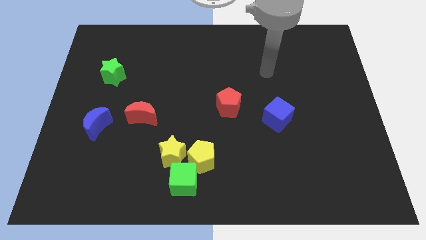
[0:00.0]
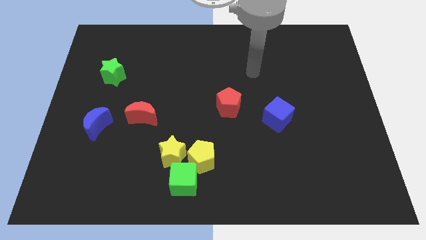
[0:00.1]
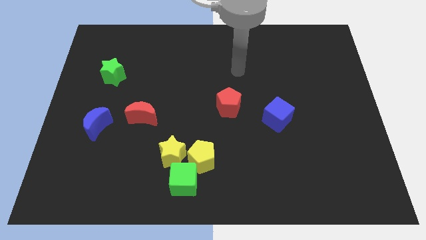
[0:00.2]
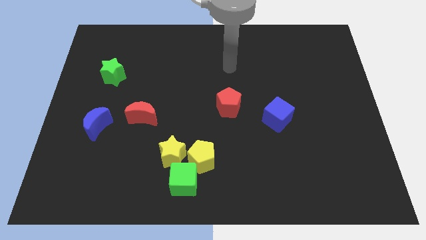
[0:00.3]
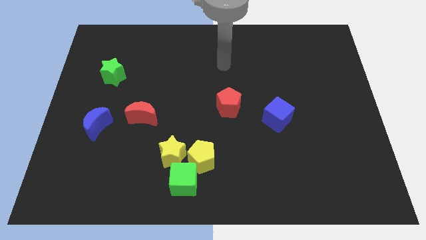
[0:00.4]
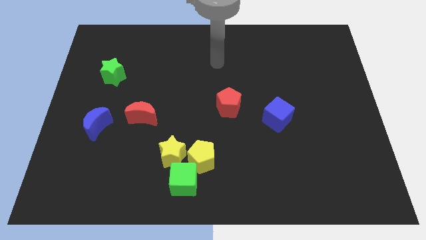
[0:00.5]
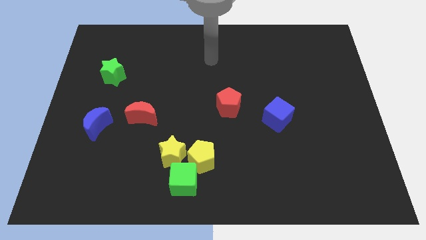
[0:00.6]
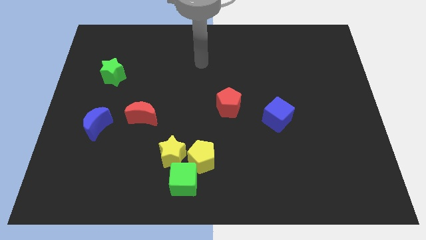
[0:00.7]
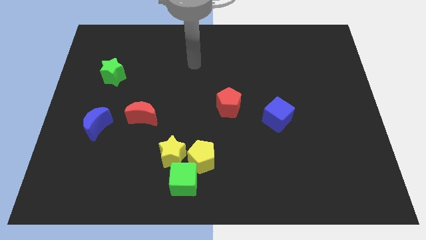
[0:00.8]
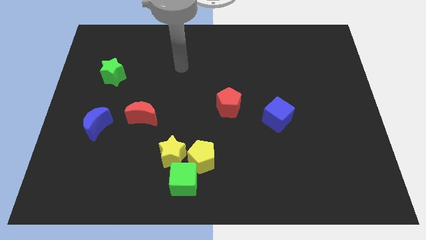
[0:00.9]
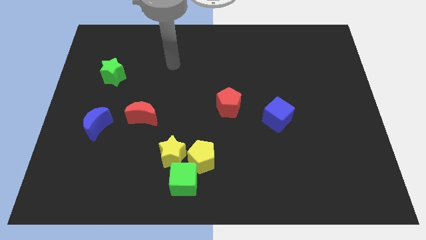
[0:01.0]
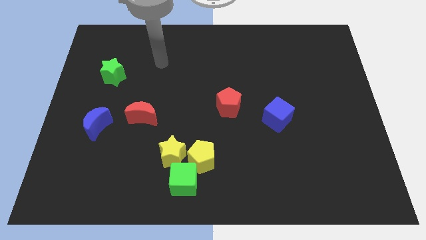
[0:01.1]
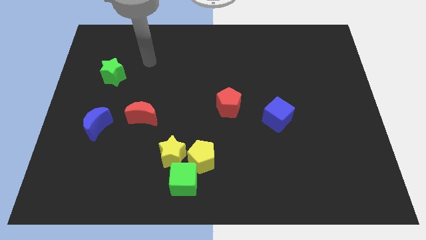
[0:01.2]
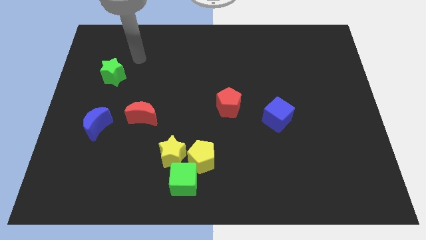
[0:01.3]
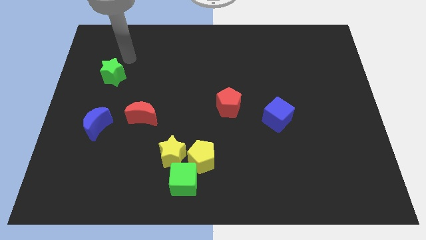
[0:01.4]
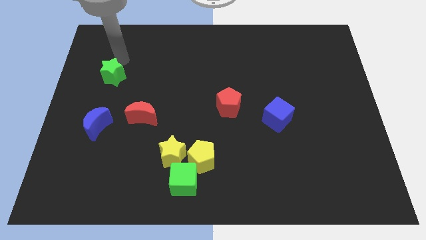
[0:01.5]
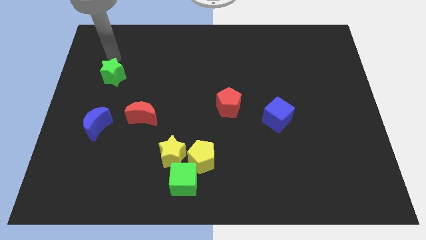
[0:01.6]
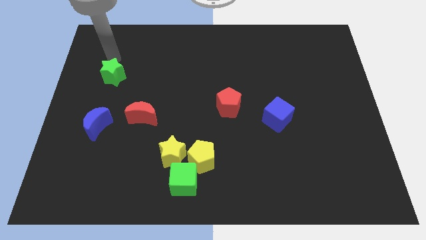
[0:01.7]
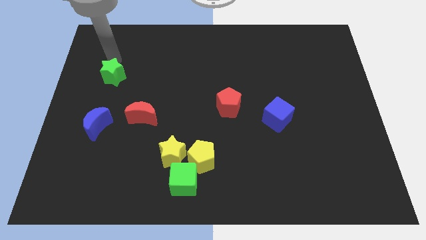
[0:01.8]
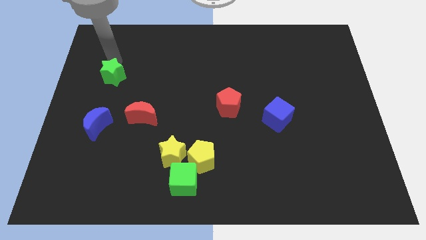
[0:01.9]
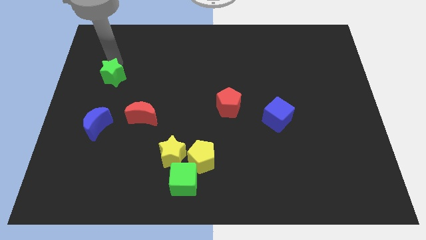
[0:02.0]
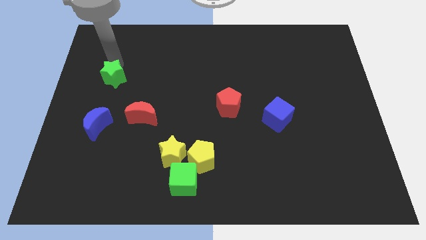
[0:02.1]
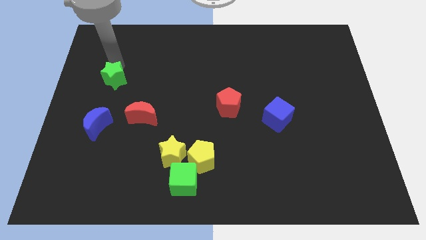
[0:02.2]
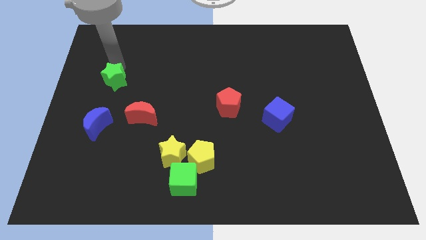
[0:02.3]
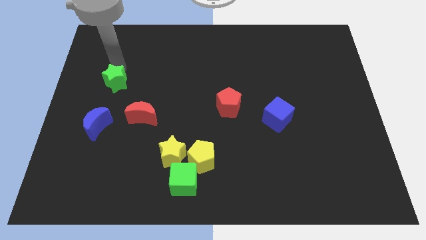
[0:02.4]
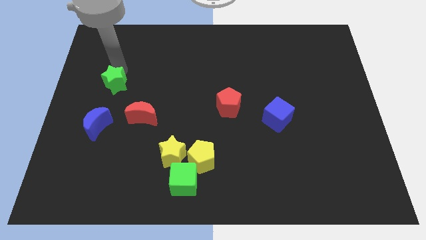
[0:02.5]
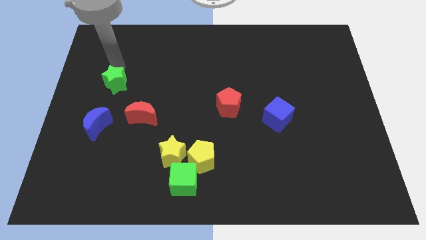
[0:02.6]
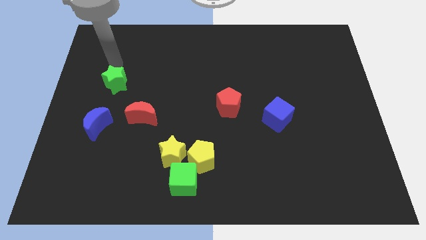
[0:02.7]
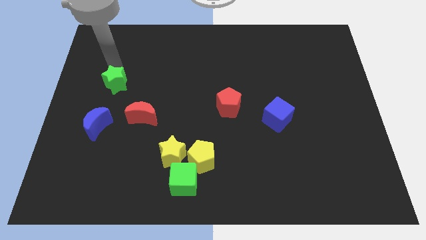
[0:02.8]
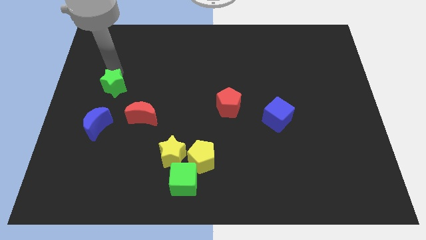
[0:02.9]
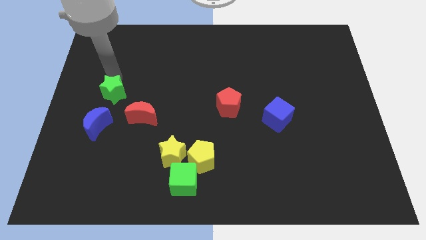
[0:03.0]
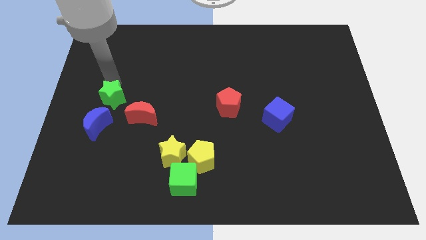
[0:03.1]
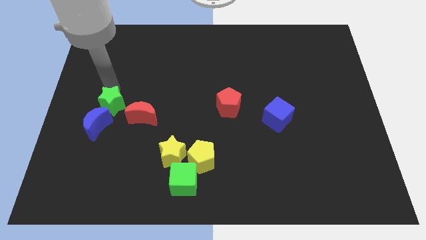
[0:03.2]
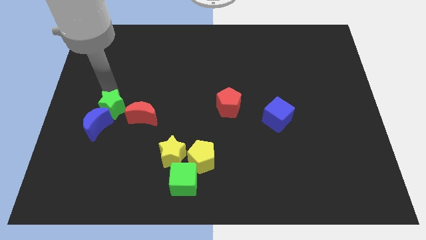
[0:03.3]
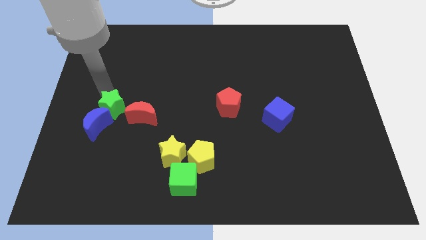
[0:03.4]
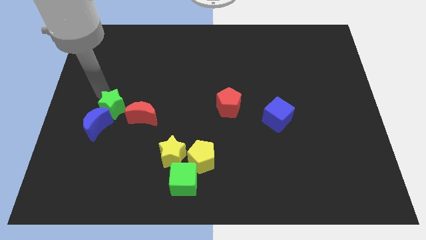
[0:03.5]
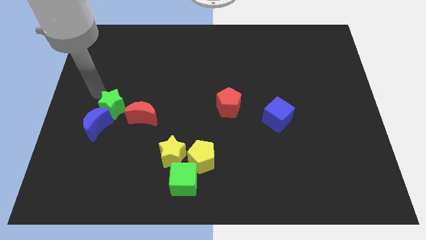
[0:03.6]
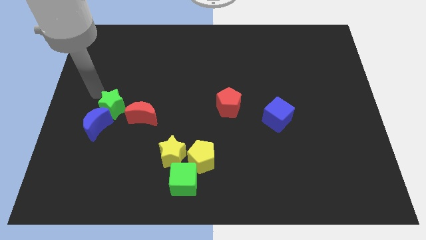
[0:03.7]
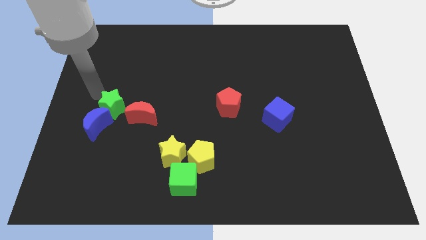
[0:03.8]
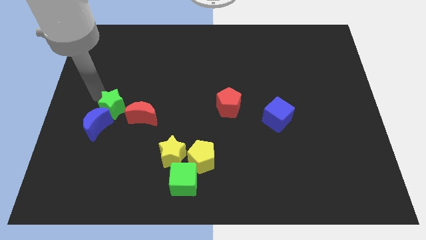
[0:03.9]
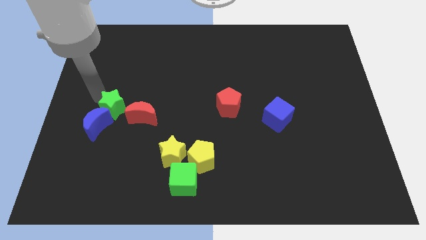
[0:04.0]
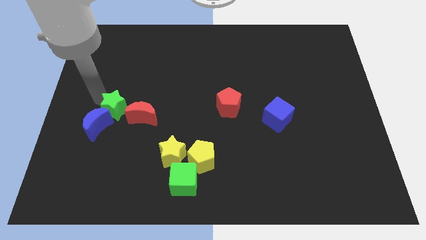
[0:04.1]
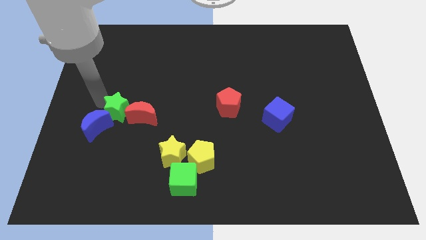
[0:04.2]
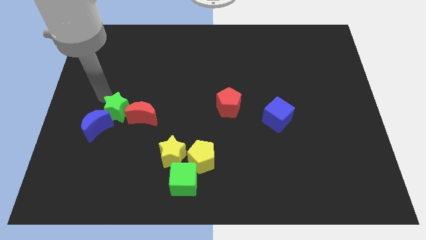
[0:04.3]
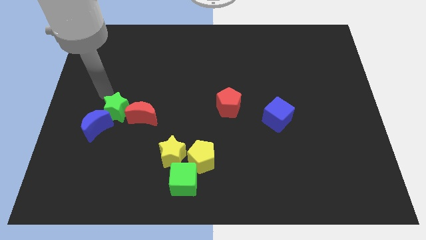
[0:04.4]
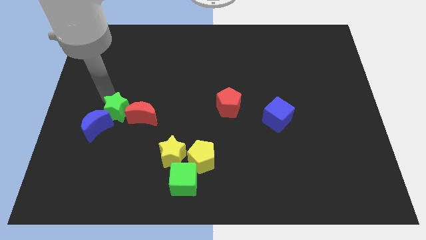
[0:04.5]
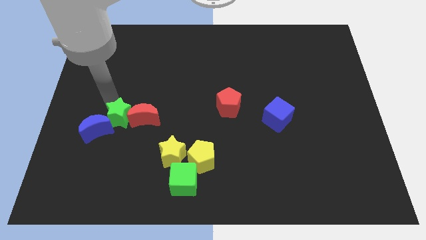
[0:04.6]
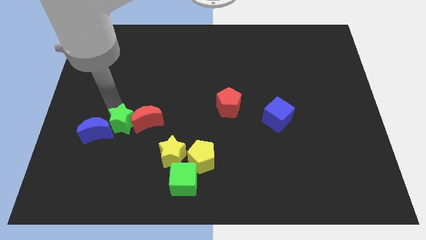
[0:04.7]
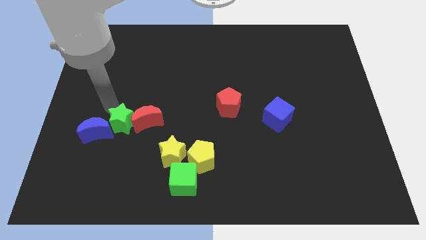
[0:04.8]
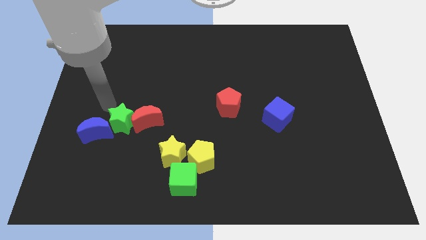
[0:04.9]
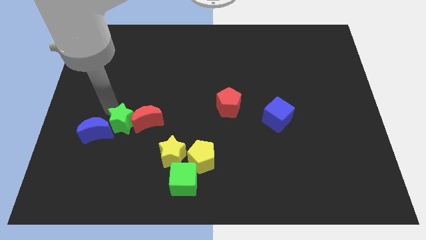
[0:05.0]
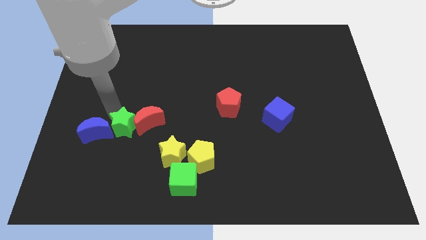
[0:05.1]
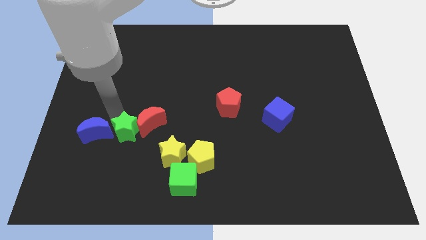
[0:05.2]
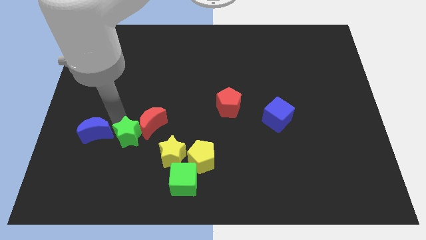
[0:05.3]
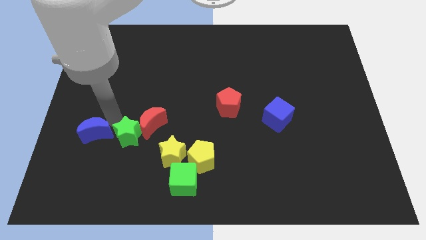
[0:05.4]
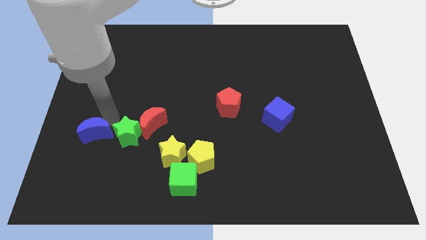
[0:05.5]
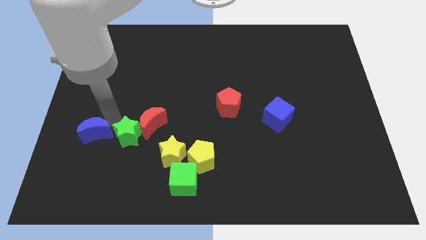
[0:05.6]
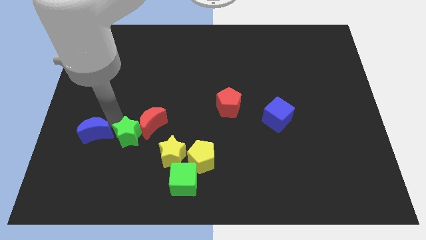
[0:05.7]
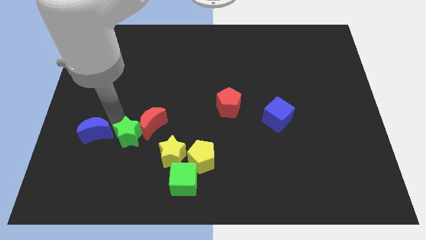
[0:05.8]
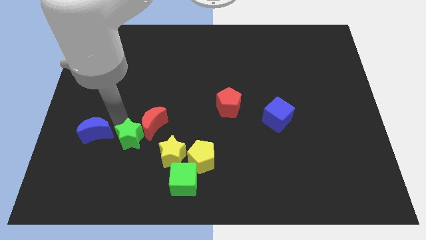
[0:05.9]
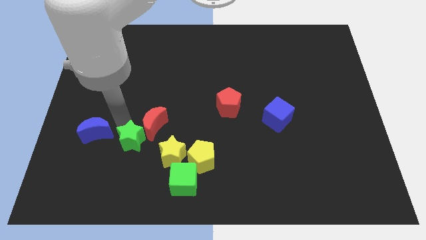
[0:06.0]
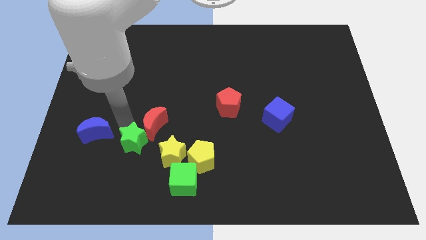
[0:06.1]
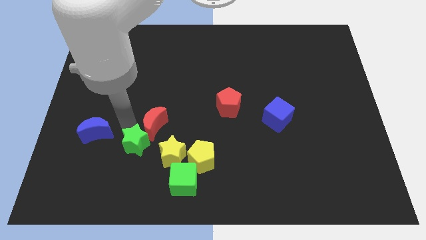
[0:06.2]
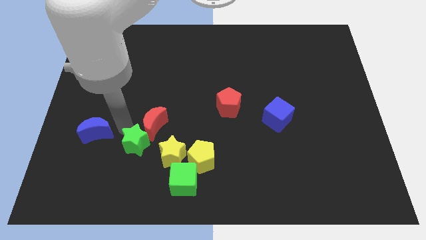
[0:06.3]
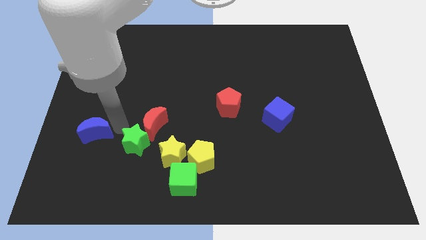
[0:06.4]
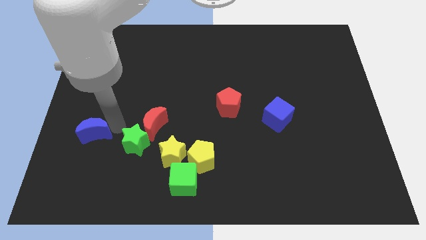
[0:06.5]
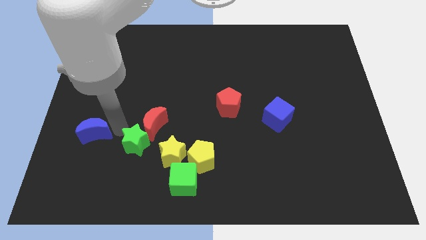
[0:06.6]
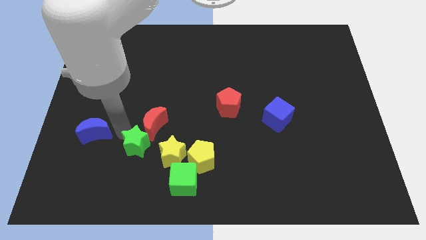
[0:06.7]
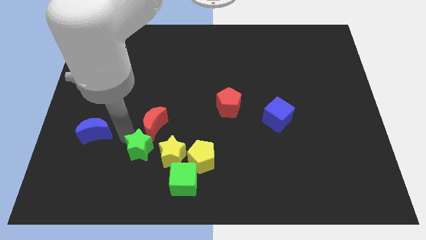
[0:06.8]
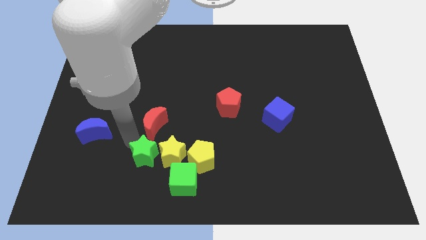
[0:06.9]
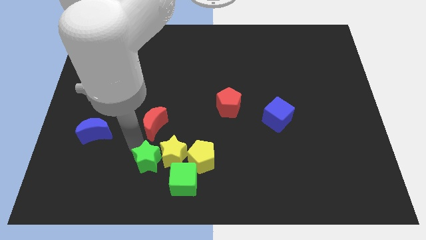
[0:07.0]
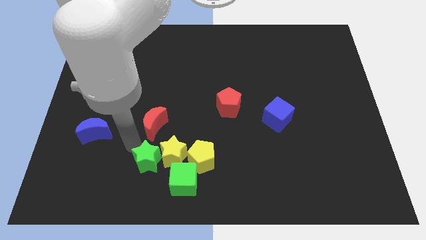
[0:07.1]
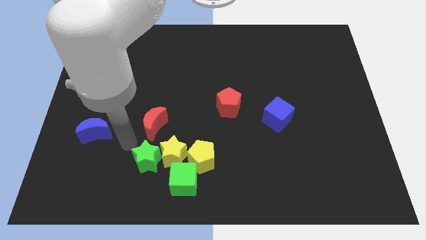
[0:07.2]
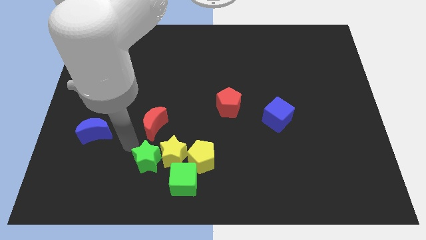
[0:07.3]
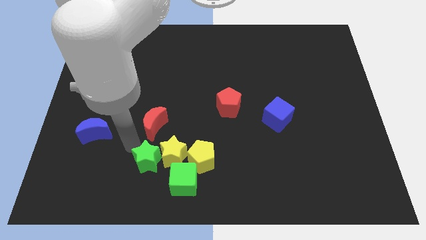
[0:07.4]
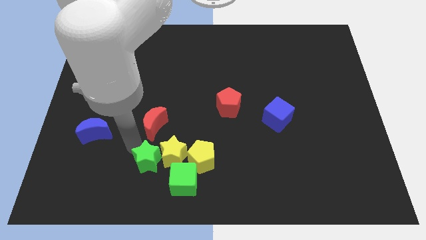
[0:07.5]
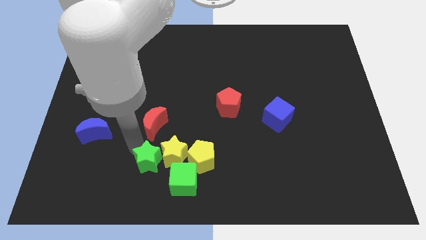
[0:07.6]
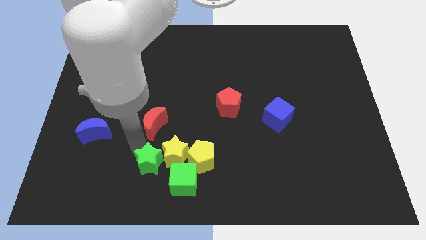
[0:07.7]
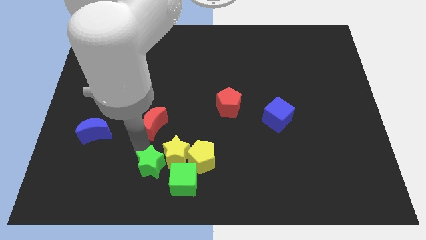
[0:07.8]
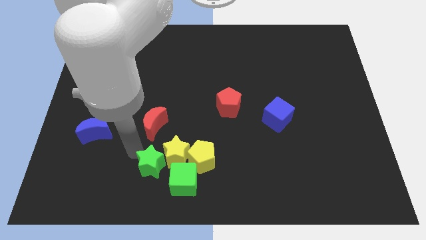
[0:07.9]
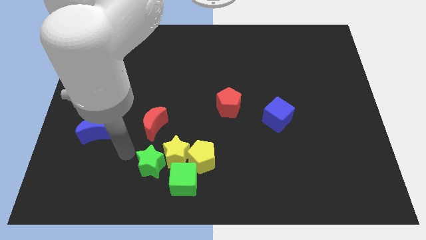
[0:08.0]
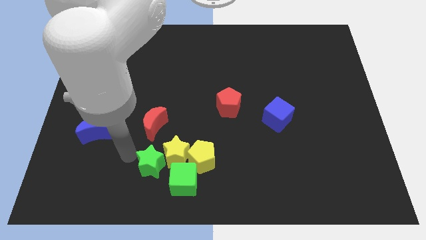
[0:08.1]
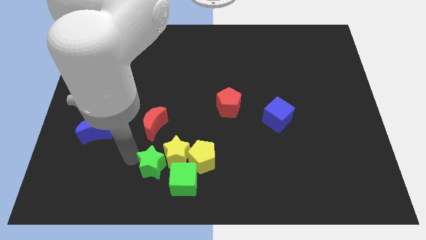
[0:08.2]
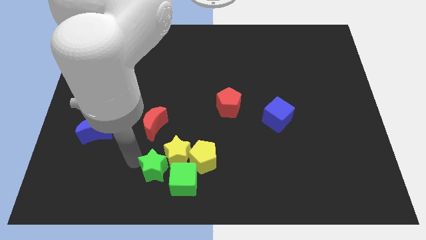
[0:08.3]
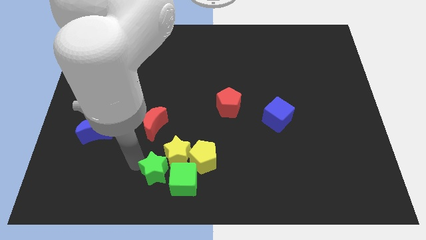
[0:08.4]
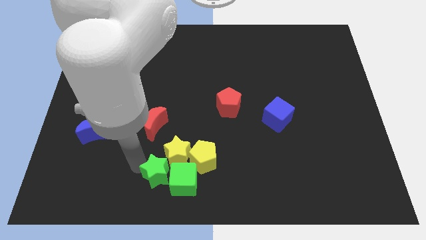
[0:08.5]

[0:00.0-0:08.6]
put the green star towards the green cube
